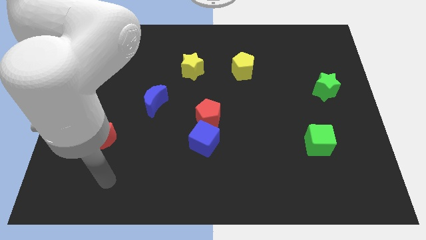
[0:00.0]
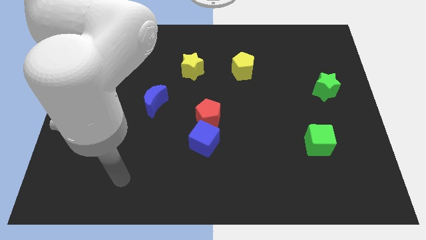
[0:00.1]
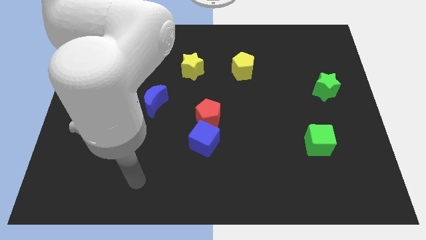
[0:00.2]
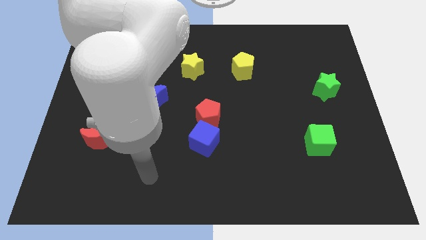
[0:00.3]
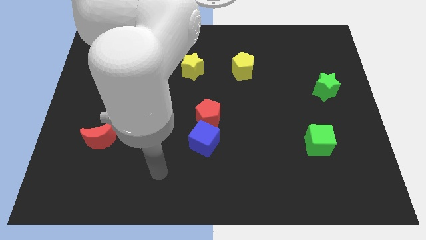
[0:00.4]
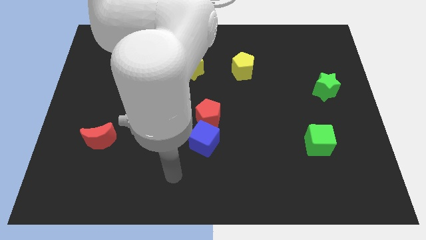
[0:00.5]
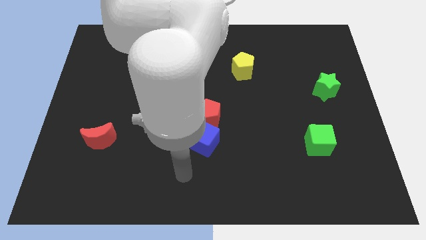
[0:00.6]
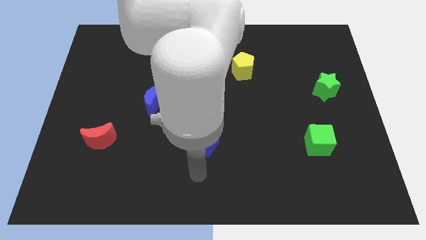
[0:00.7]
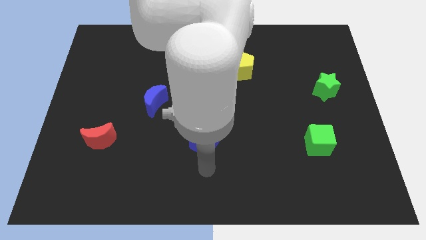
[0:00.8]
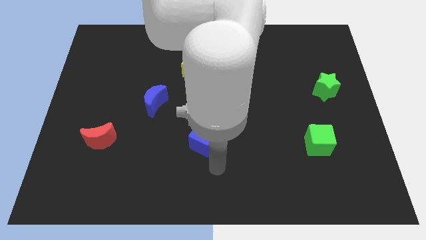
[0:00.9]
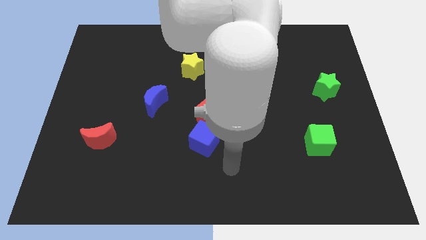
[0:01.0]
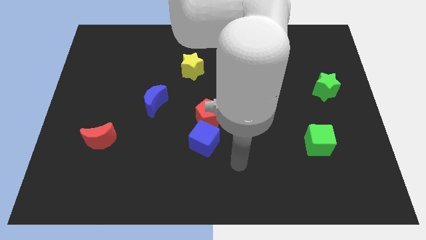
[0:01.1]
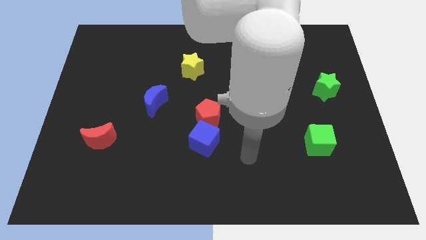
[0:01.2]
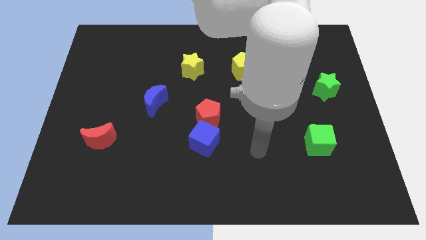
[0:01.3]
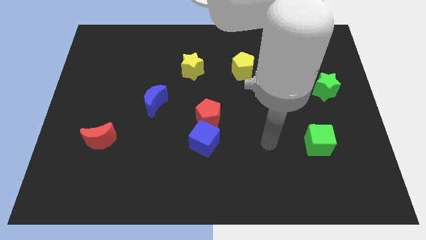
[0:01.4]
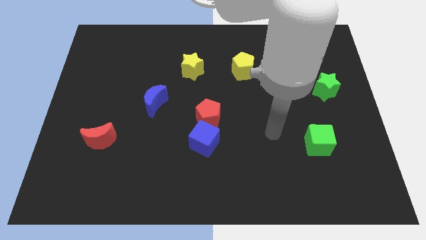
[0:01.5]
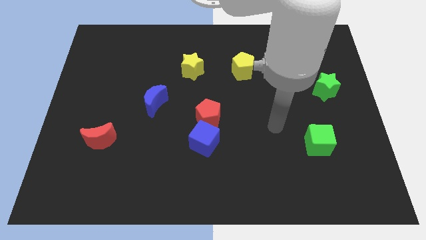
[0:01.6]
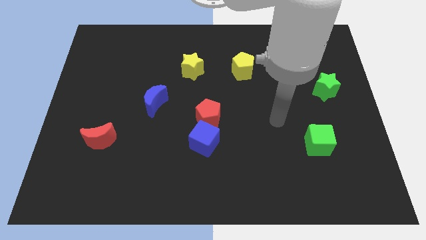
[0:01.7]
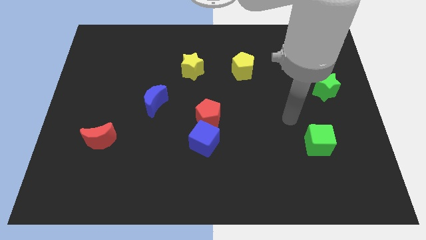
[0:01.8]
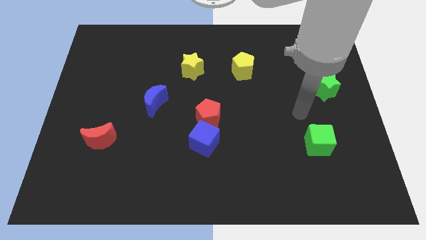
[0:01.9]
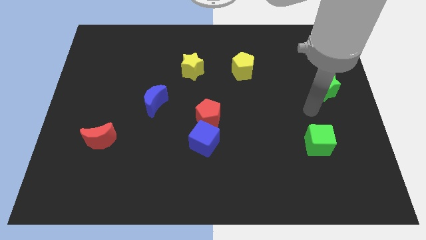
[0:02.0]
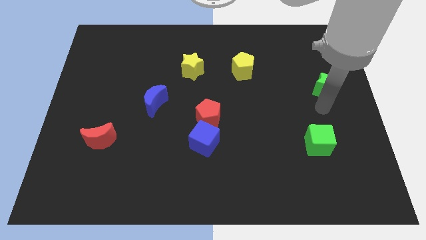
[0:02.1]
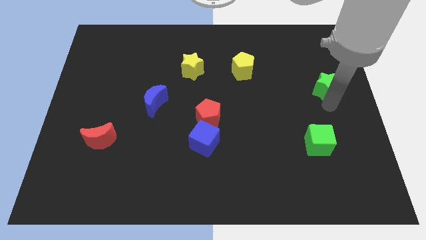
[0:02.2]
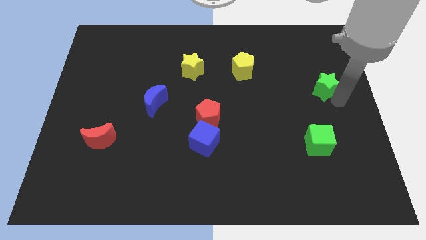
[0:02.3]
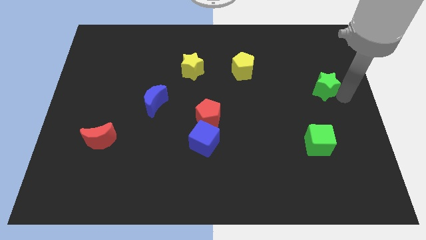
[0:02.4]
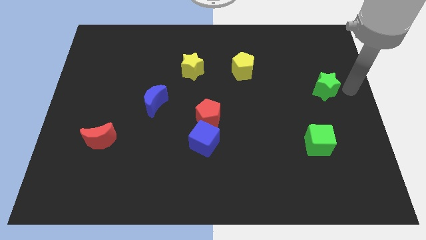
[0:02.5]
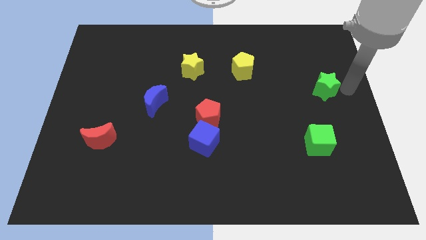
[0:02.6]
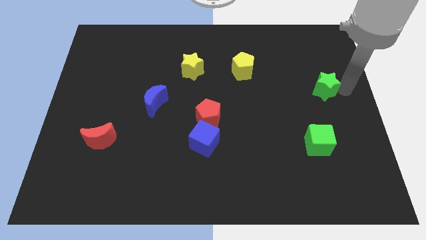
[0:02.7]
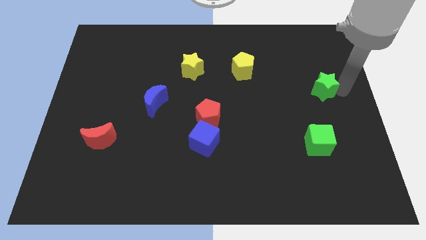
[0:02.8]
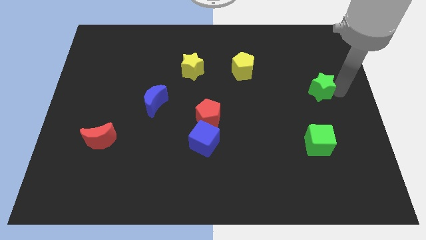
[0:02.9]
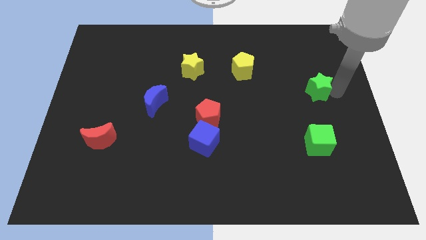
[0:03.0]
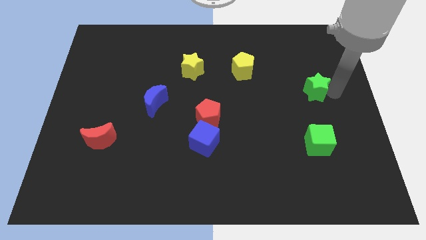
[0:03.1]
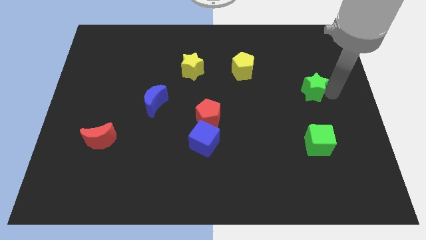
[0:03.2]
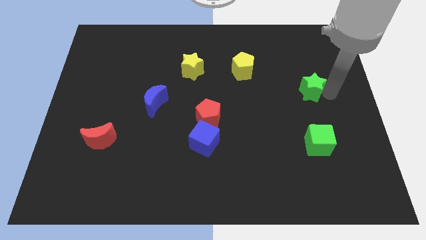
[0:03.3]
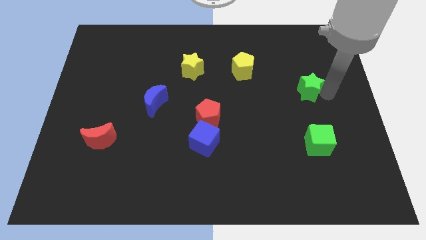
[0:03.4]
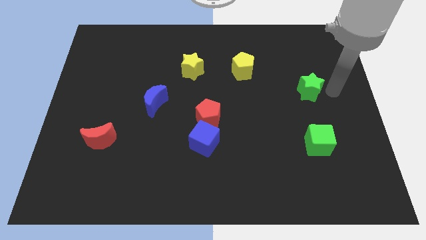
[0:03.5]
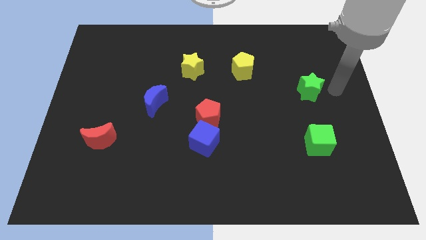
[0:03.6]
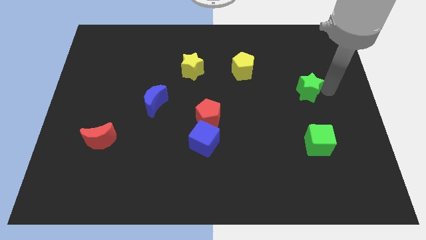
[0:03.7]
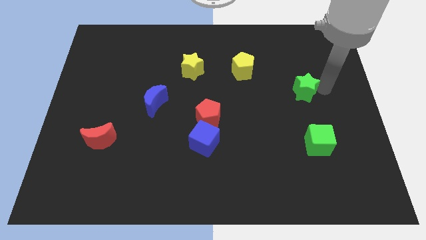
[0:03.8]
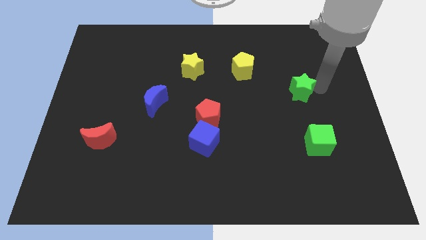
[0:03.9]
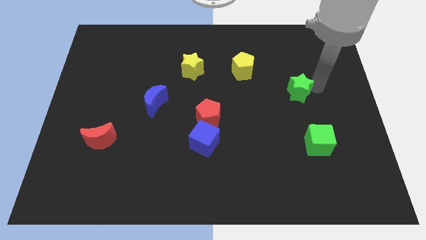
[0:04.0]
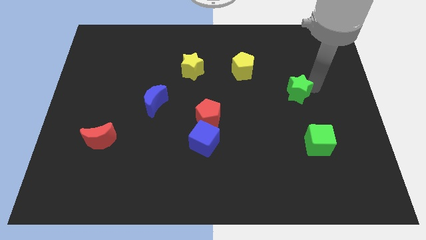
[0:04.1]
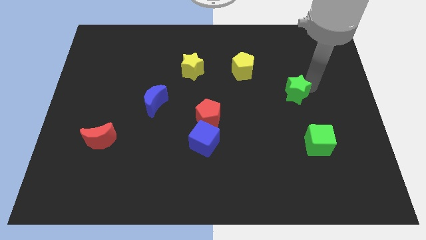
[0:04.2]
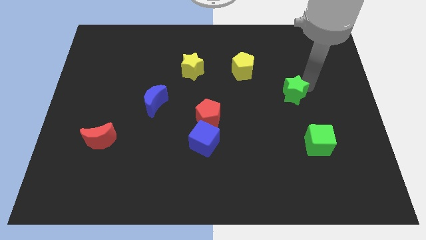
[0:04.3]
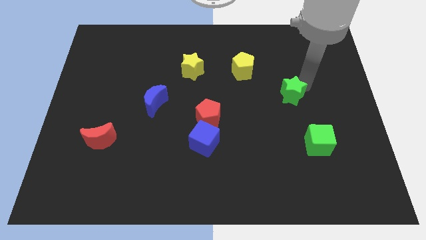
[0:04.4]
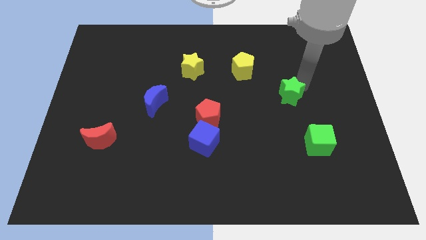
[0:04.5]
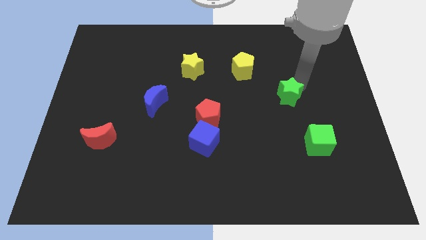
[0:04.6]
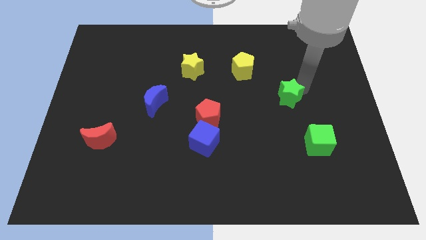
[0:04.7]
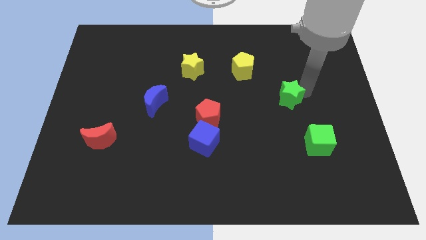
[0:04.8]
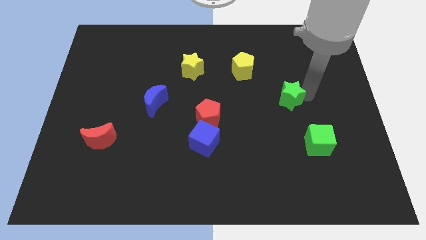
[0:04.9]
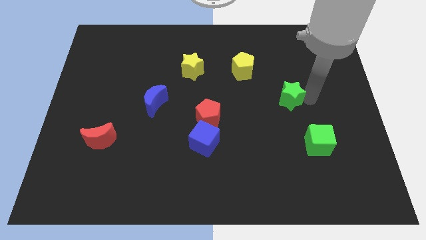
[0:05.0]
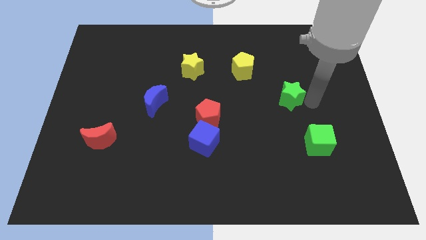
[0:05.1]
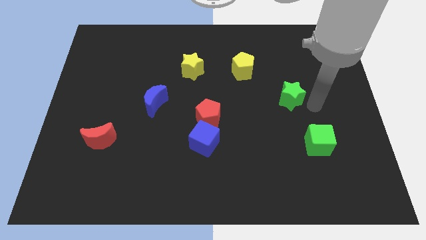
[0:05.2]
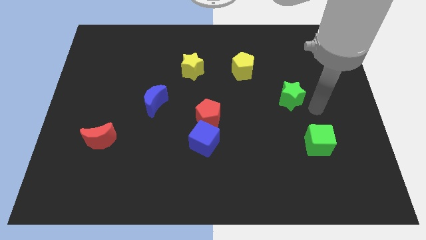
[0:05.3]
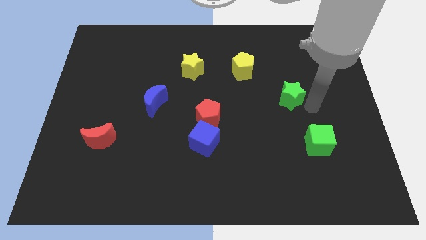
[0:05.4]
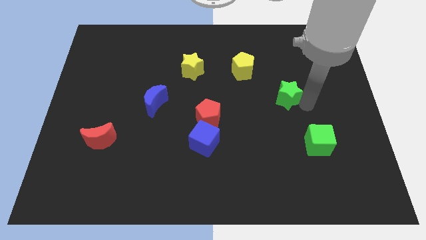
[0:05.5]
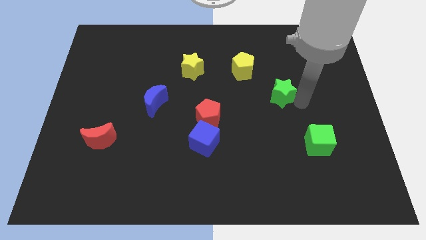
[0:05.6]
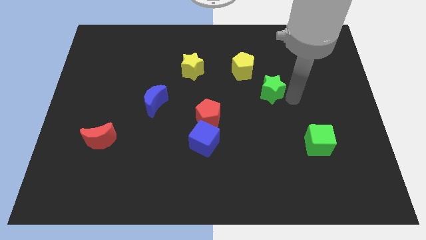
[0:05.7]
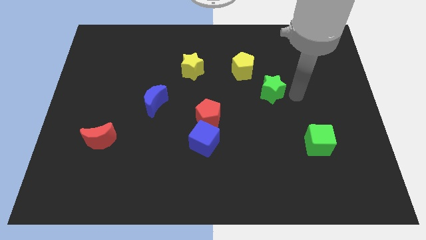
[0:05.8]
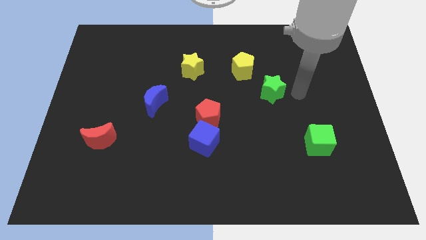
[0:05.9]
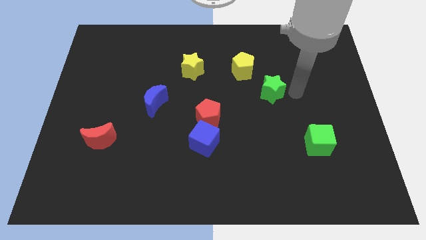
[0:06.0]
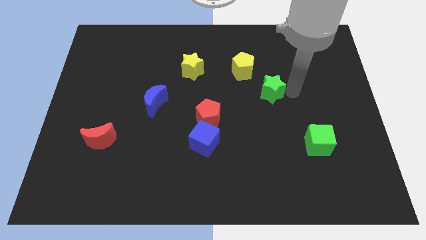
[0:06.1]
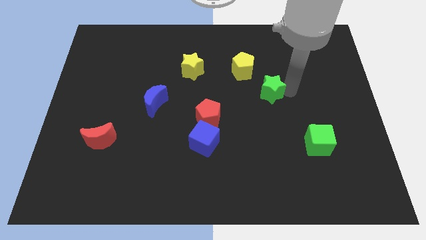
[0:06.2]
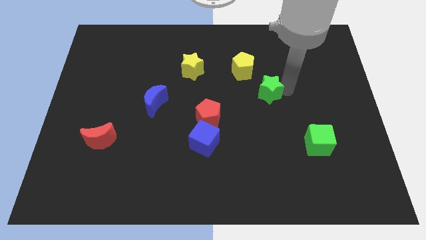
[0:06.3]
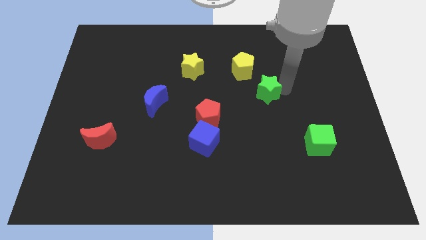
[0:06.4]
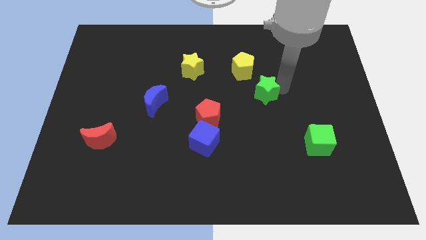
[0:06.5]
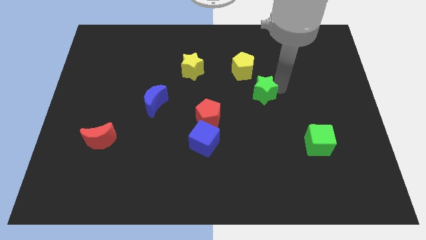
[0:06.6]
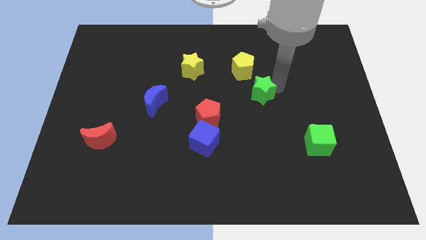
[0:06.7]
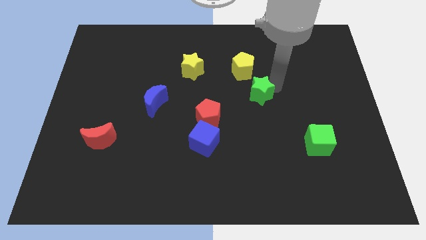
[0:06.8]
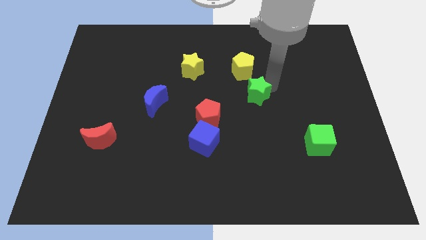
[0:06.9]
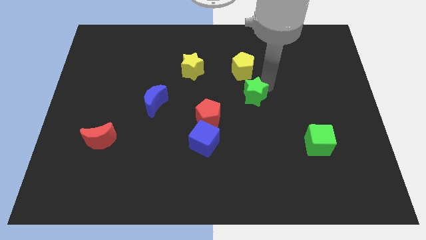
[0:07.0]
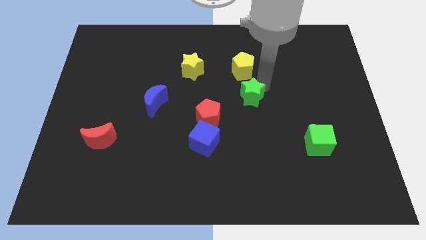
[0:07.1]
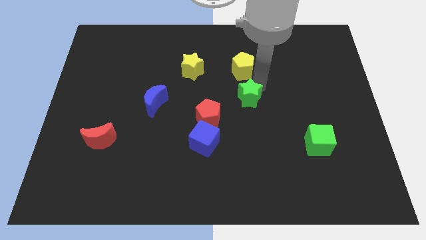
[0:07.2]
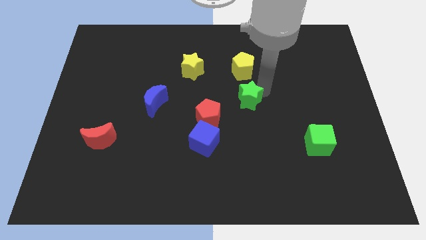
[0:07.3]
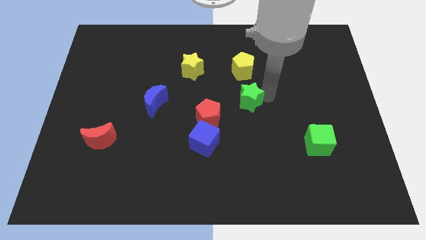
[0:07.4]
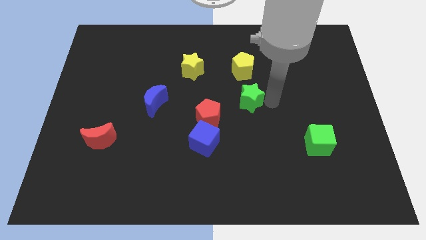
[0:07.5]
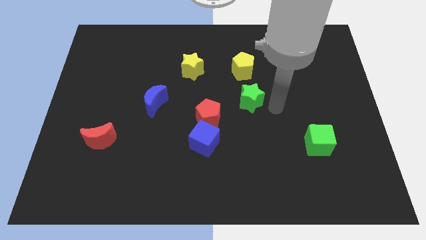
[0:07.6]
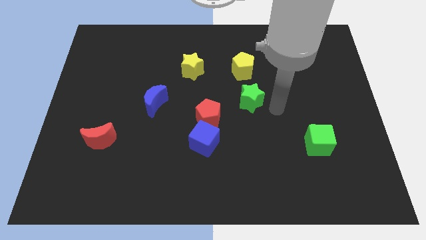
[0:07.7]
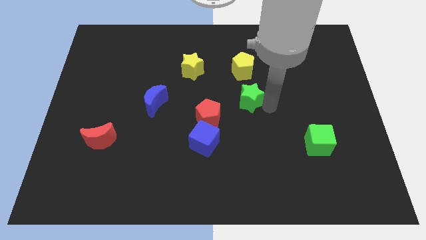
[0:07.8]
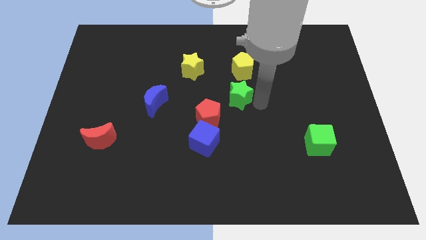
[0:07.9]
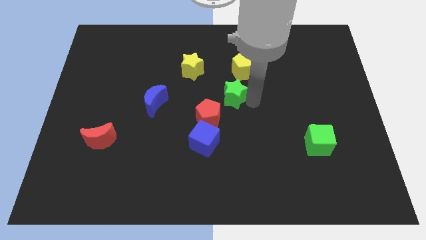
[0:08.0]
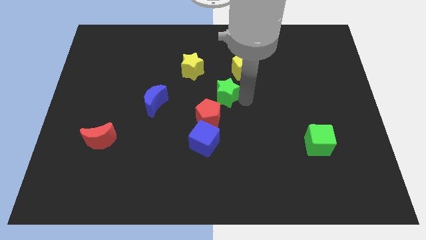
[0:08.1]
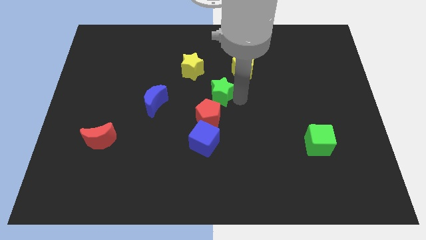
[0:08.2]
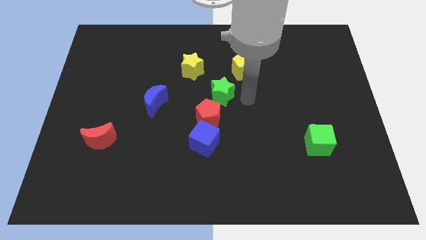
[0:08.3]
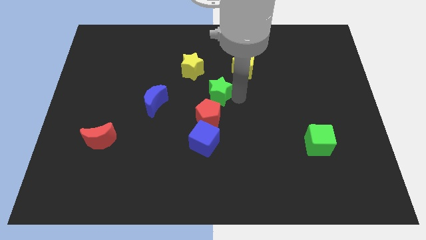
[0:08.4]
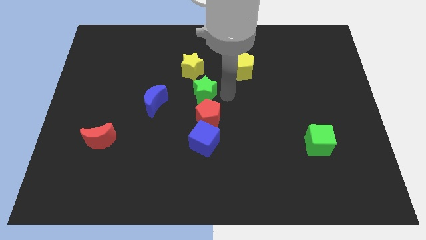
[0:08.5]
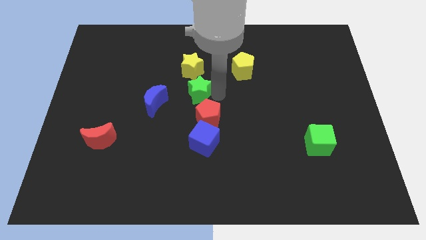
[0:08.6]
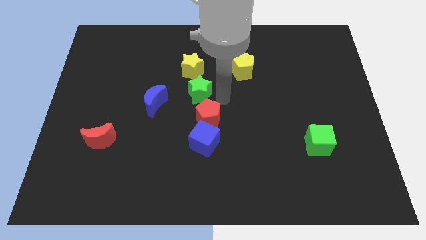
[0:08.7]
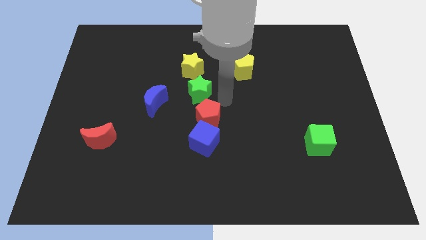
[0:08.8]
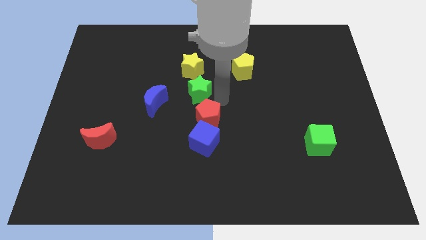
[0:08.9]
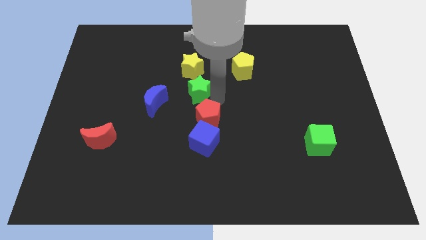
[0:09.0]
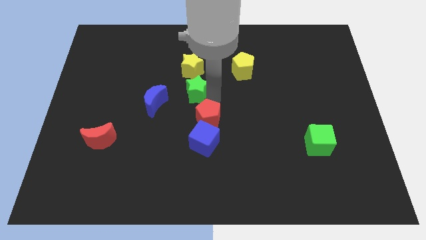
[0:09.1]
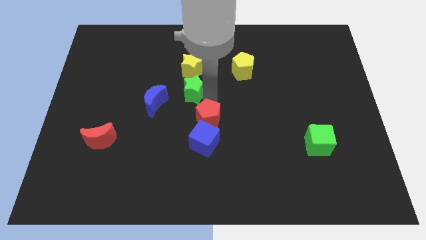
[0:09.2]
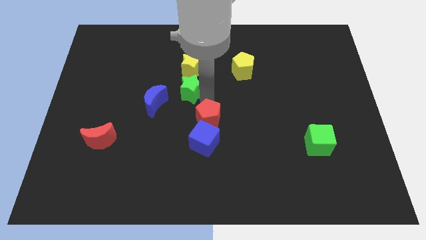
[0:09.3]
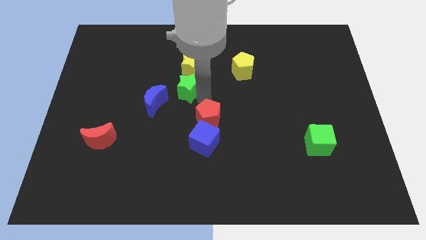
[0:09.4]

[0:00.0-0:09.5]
put the green star diagonally down and to the left of the yellow star
